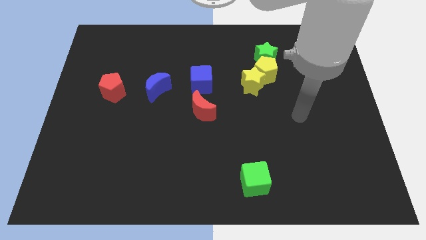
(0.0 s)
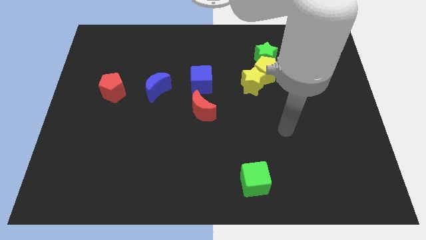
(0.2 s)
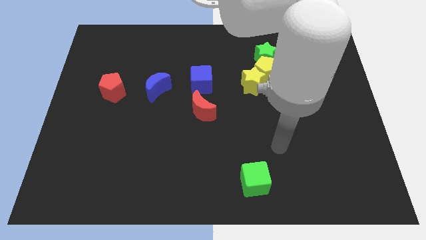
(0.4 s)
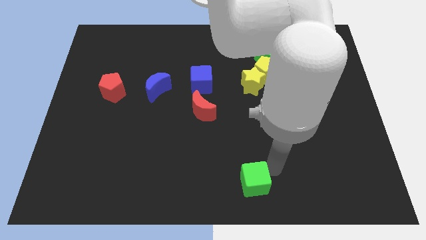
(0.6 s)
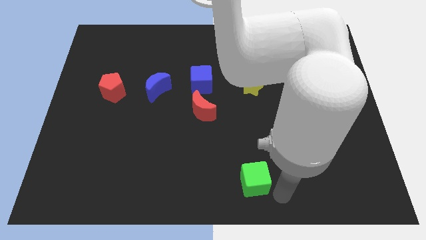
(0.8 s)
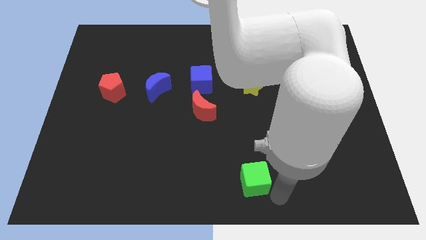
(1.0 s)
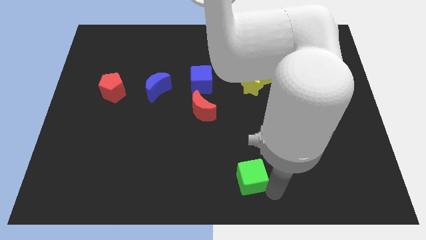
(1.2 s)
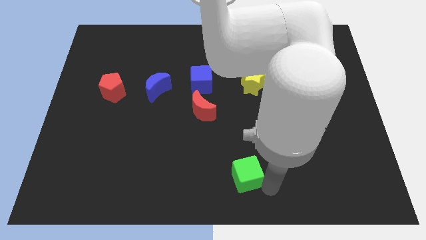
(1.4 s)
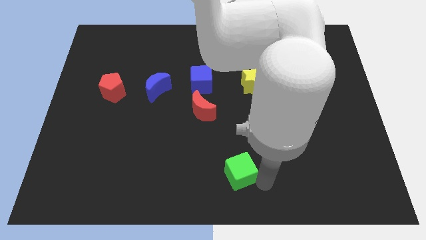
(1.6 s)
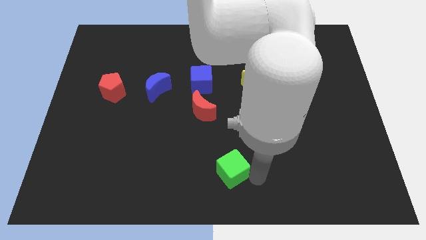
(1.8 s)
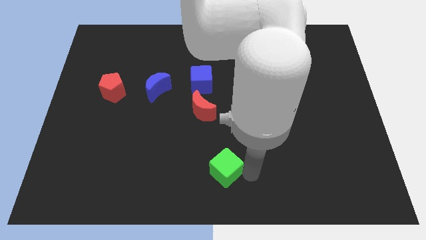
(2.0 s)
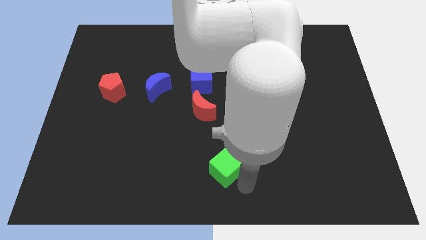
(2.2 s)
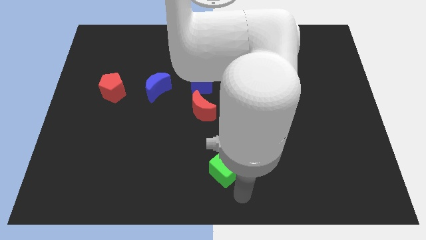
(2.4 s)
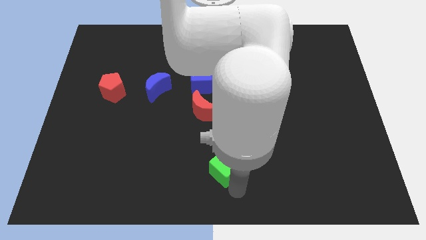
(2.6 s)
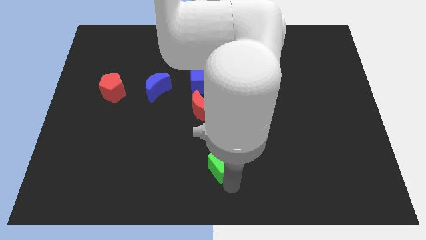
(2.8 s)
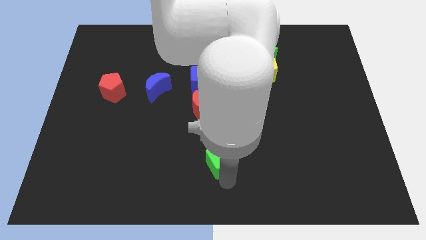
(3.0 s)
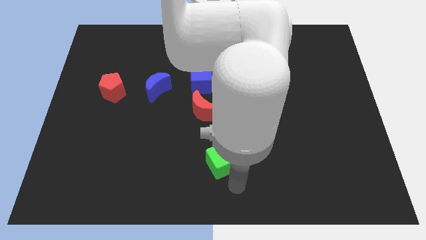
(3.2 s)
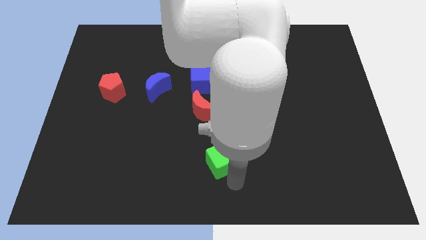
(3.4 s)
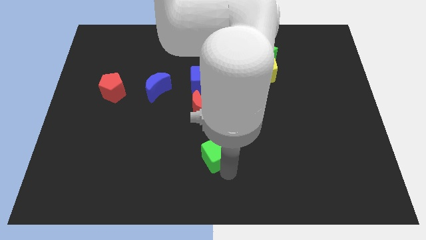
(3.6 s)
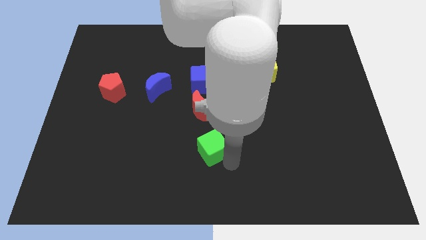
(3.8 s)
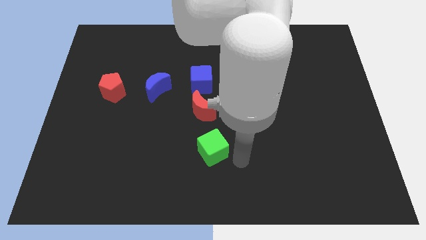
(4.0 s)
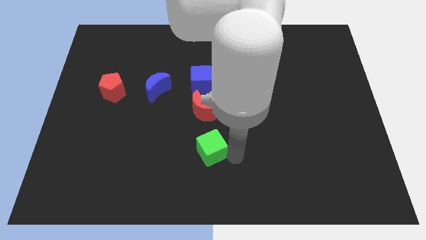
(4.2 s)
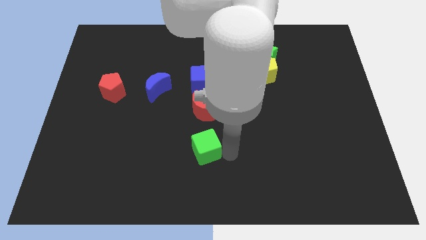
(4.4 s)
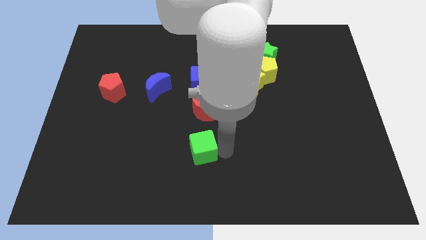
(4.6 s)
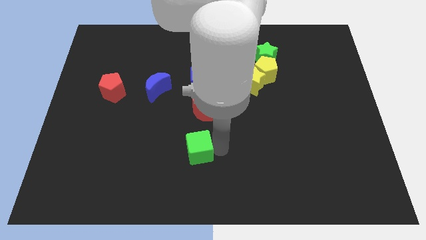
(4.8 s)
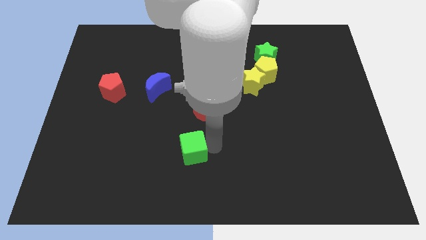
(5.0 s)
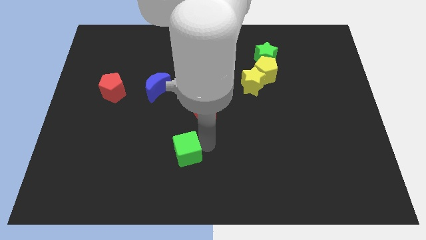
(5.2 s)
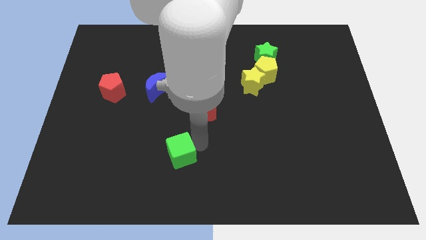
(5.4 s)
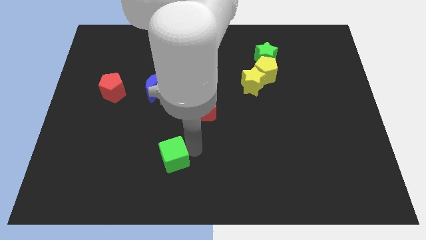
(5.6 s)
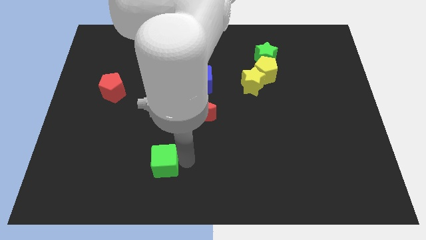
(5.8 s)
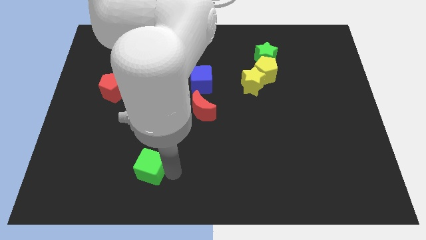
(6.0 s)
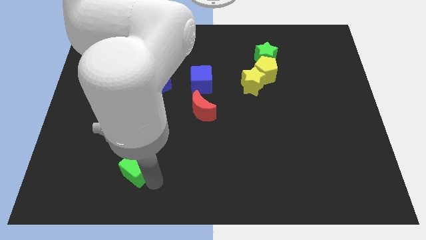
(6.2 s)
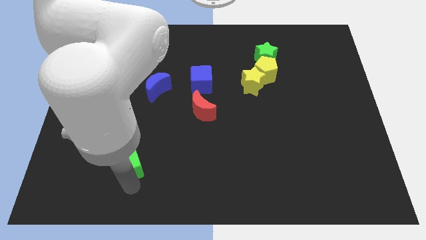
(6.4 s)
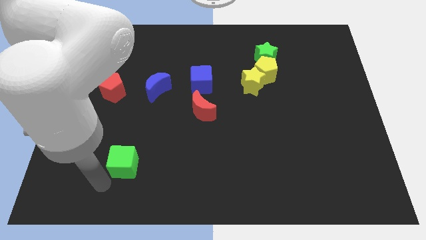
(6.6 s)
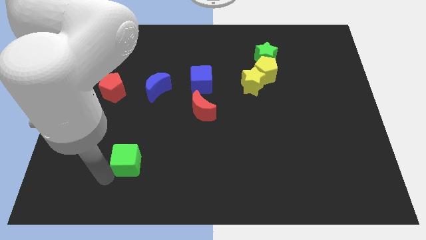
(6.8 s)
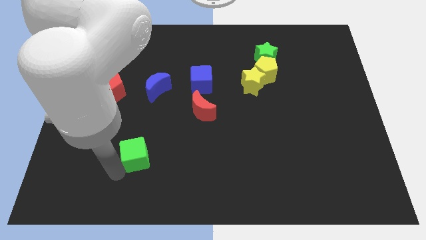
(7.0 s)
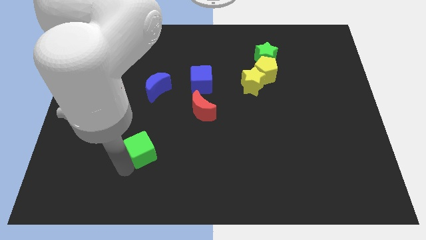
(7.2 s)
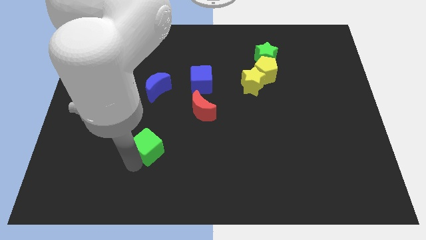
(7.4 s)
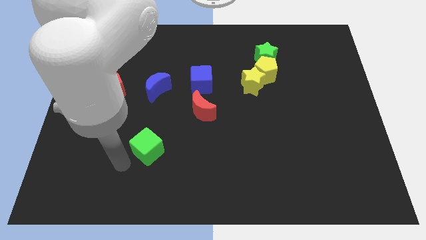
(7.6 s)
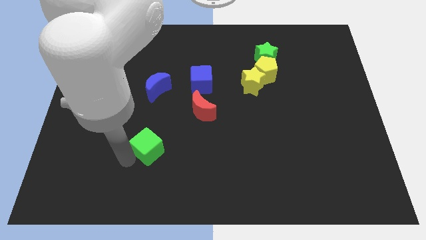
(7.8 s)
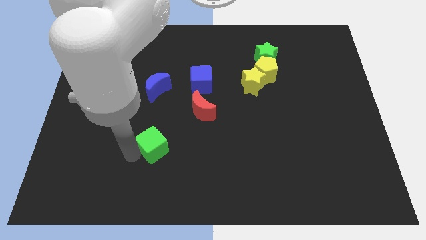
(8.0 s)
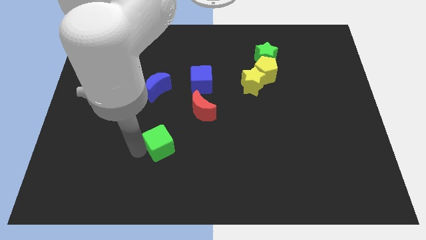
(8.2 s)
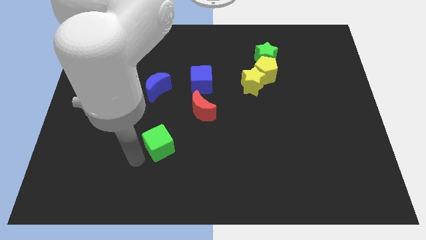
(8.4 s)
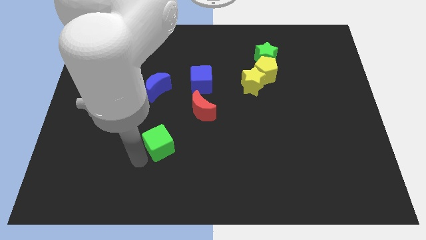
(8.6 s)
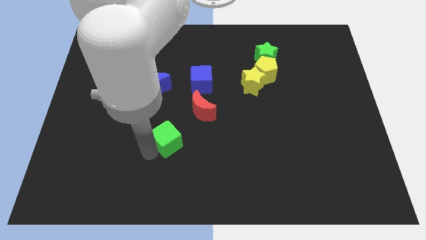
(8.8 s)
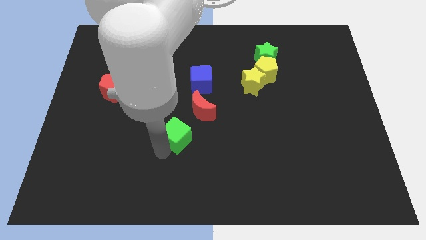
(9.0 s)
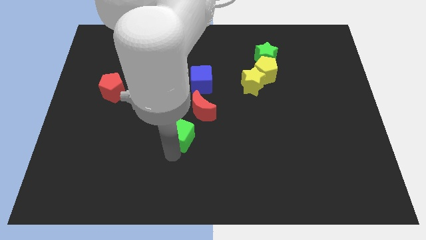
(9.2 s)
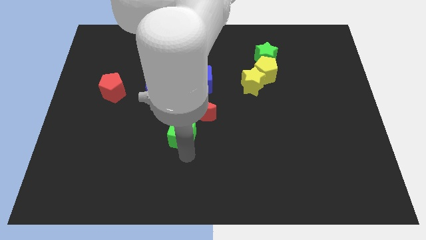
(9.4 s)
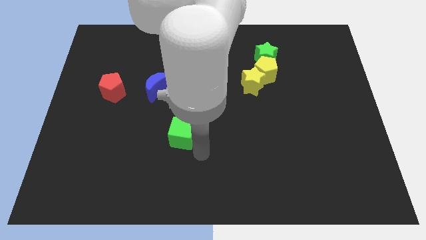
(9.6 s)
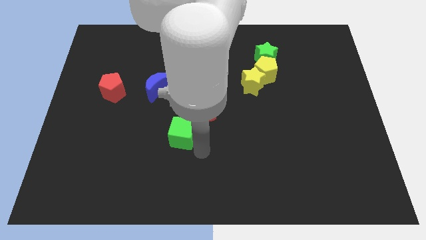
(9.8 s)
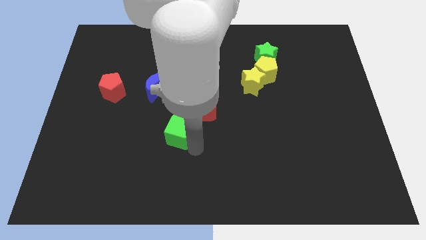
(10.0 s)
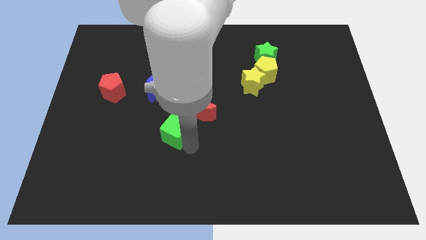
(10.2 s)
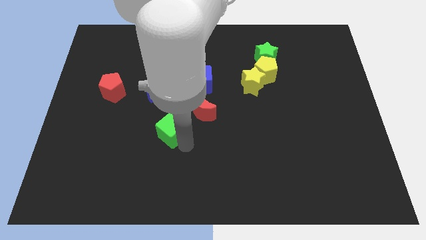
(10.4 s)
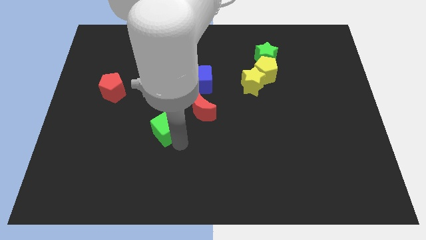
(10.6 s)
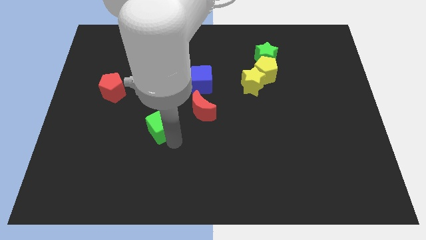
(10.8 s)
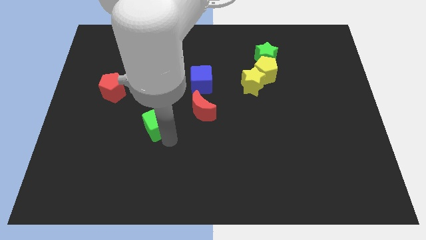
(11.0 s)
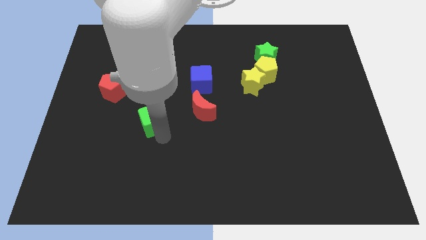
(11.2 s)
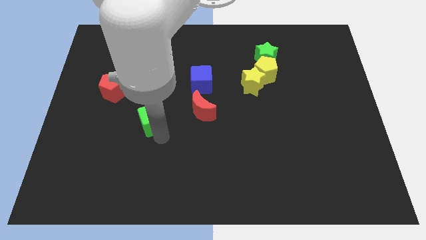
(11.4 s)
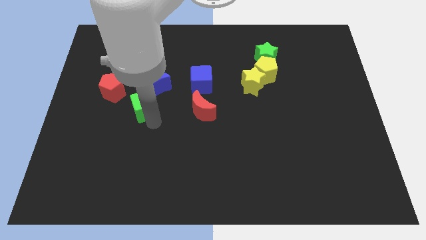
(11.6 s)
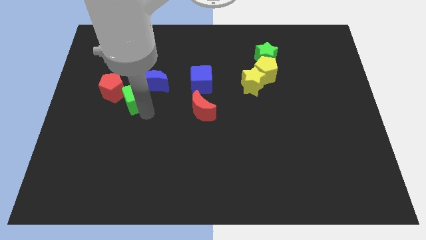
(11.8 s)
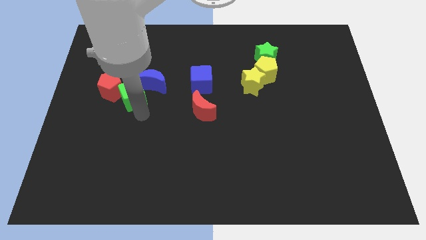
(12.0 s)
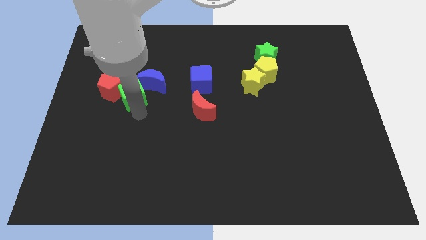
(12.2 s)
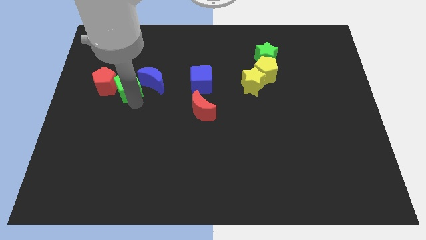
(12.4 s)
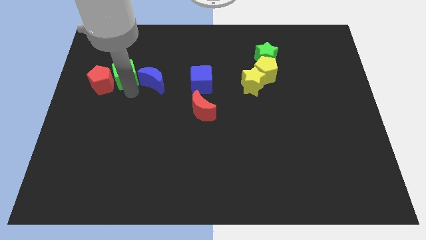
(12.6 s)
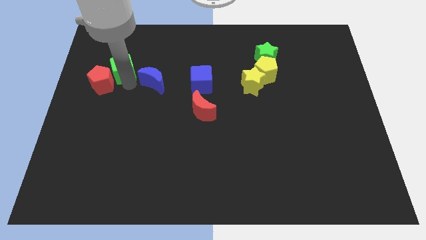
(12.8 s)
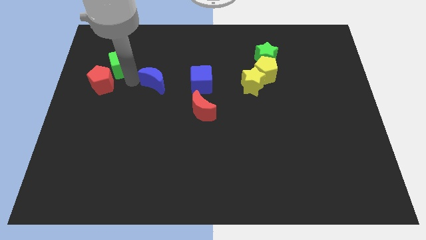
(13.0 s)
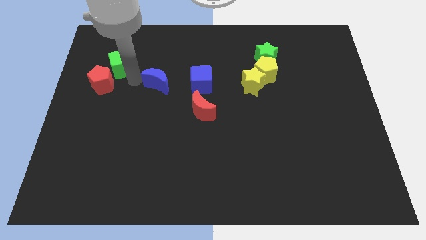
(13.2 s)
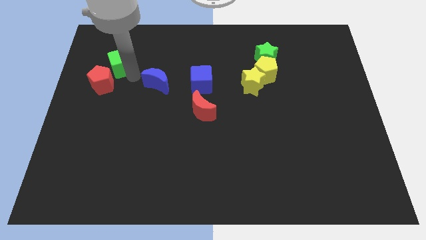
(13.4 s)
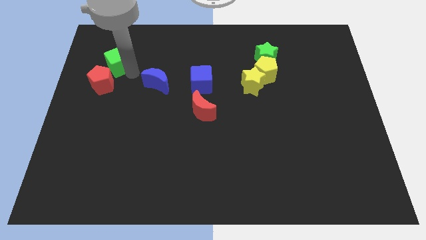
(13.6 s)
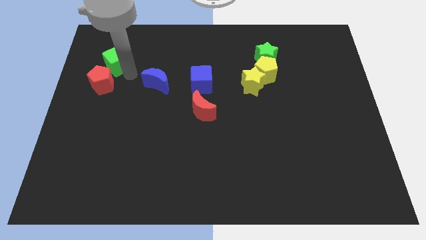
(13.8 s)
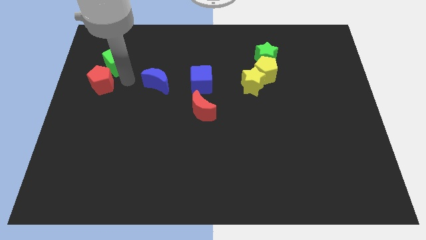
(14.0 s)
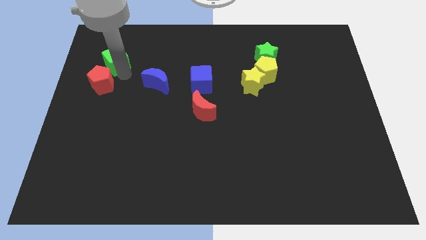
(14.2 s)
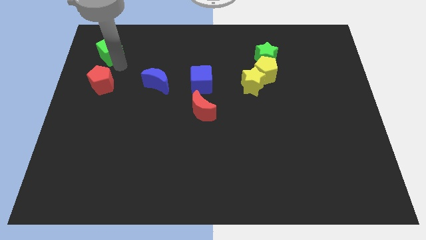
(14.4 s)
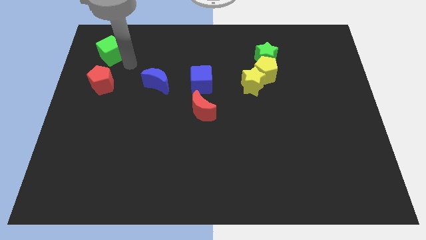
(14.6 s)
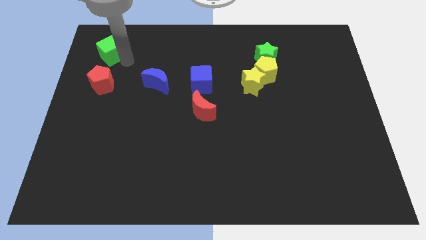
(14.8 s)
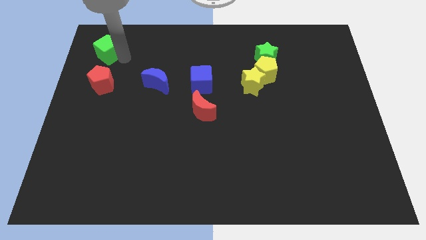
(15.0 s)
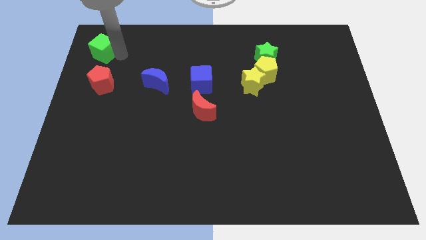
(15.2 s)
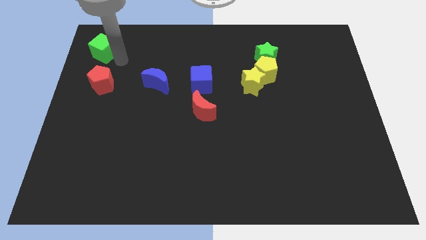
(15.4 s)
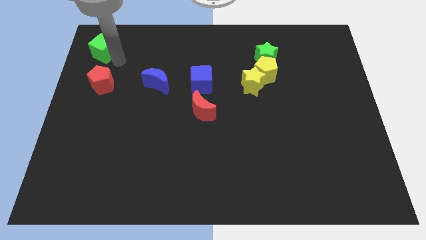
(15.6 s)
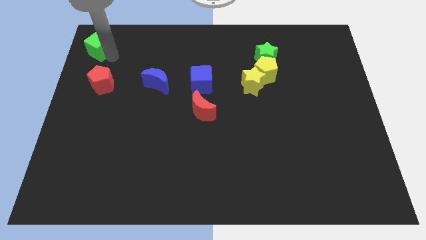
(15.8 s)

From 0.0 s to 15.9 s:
slide the green cube to the top left of the board
